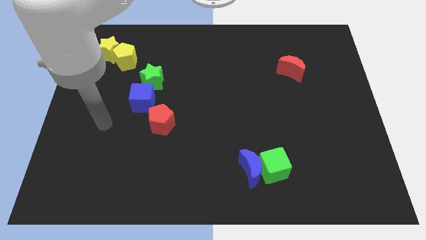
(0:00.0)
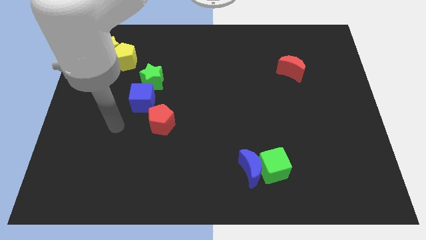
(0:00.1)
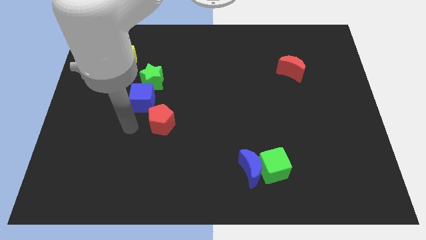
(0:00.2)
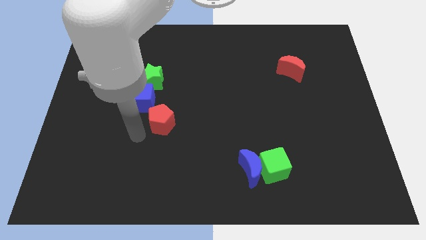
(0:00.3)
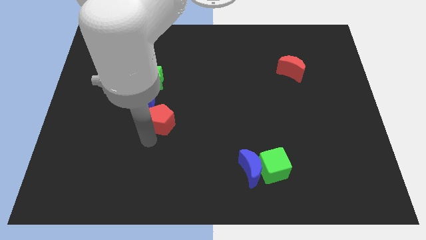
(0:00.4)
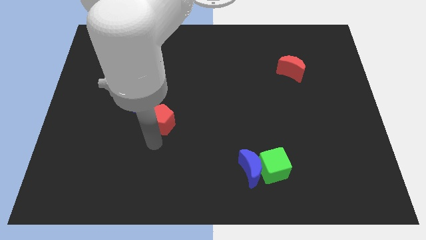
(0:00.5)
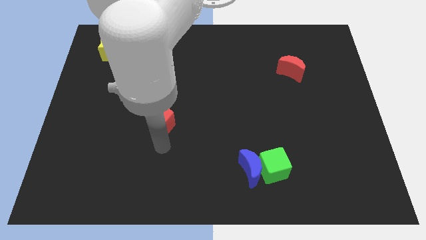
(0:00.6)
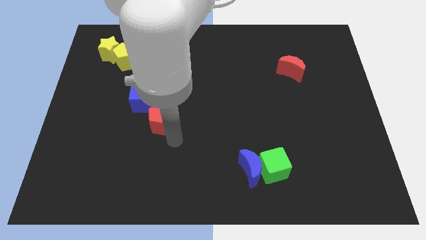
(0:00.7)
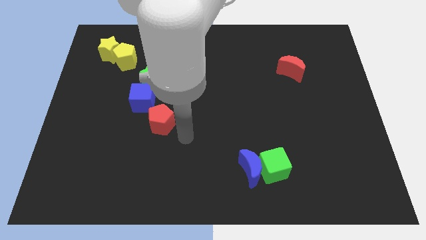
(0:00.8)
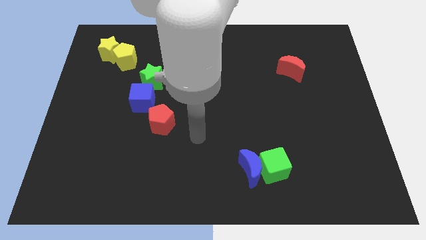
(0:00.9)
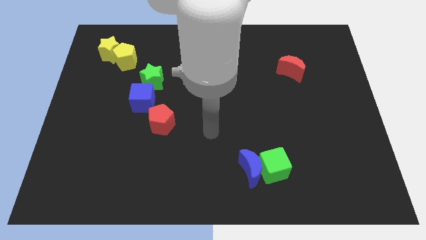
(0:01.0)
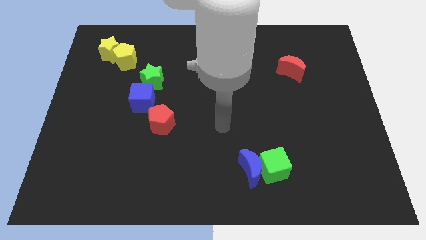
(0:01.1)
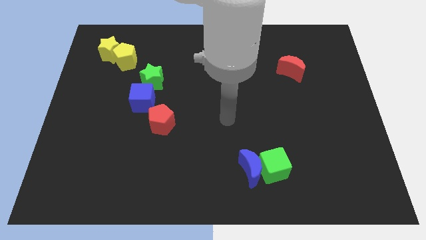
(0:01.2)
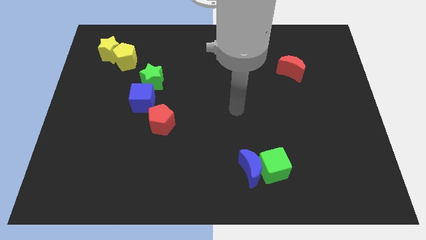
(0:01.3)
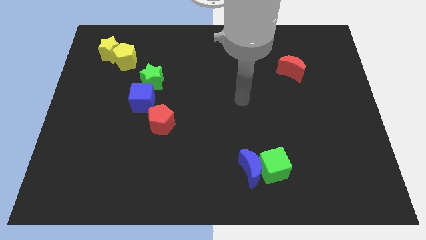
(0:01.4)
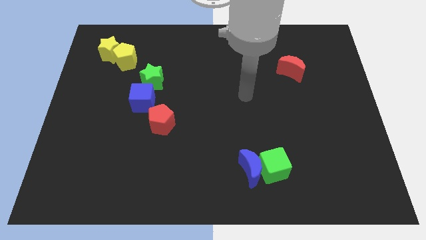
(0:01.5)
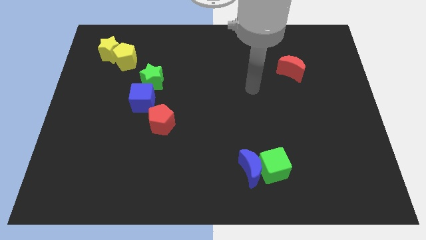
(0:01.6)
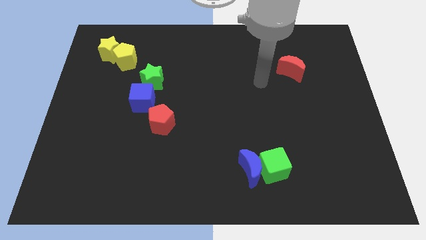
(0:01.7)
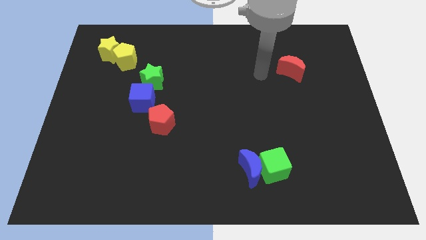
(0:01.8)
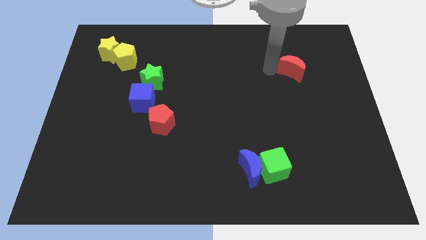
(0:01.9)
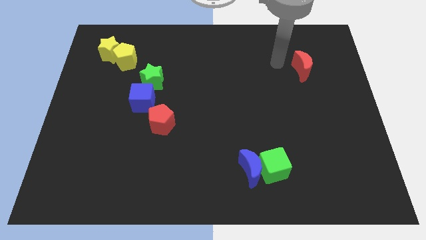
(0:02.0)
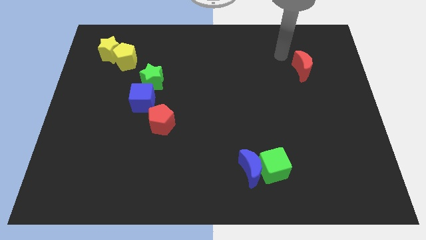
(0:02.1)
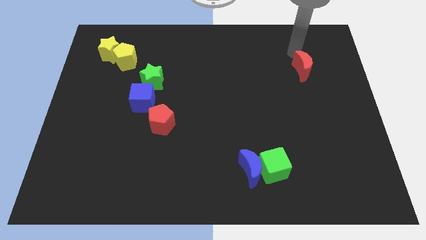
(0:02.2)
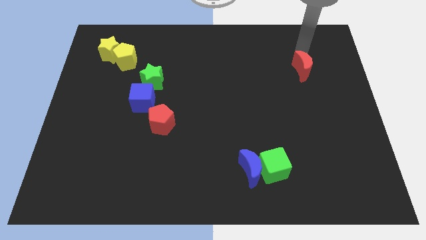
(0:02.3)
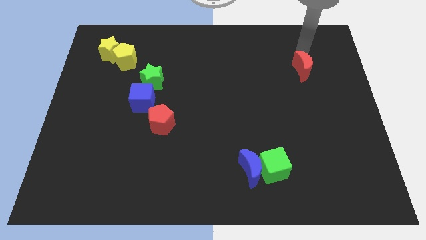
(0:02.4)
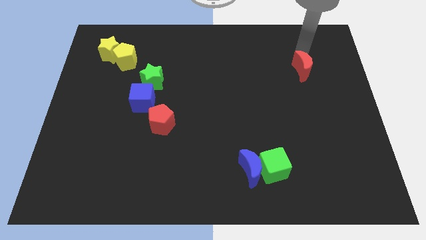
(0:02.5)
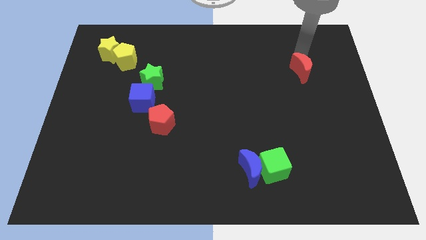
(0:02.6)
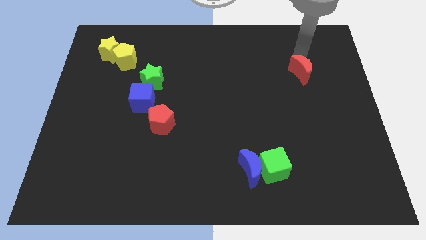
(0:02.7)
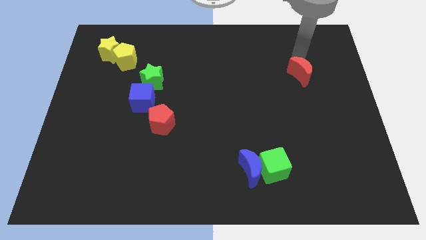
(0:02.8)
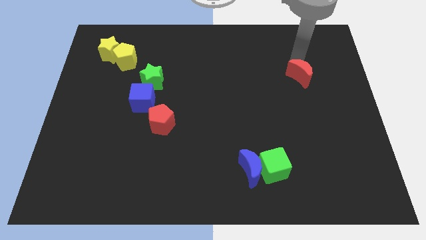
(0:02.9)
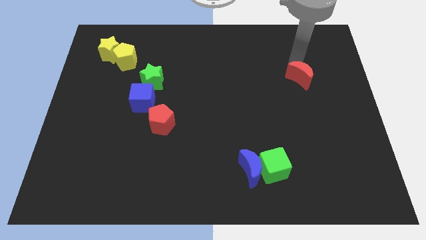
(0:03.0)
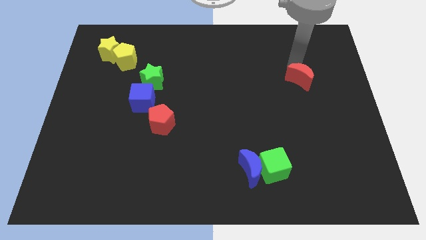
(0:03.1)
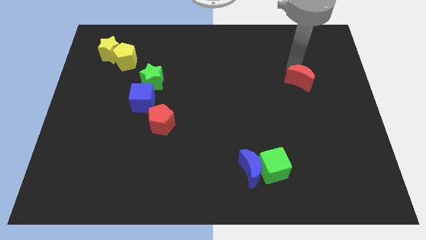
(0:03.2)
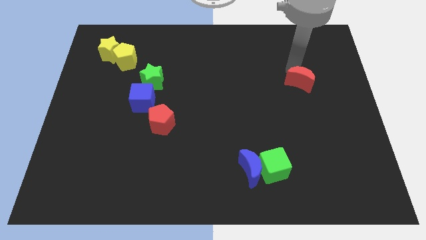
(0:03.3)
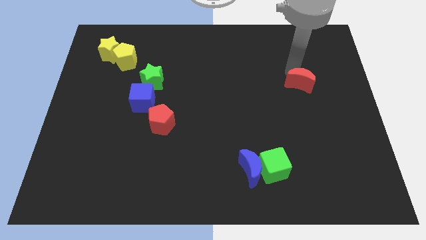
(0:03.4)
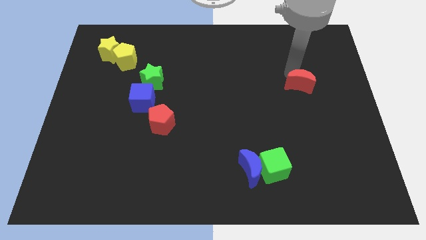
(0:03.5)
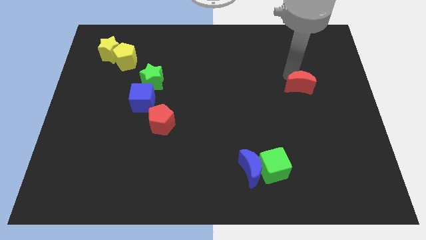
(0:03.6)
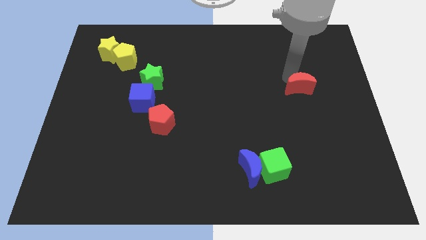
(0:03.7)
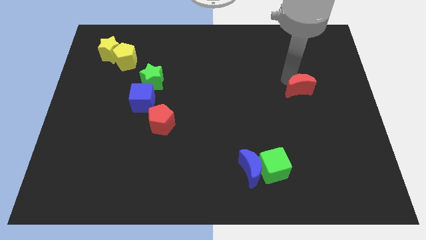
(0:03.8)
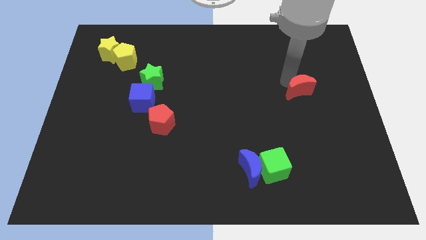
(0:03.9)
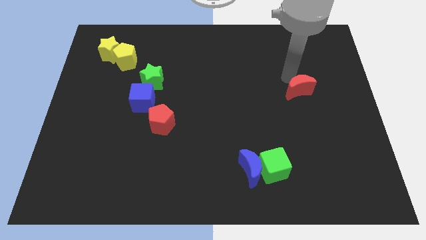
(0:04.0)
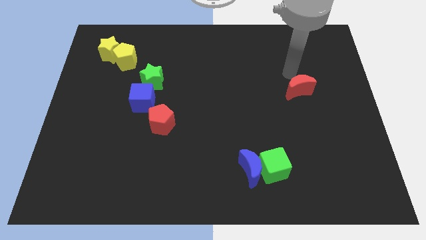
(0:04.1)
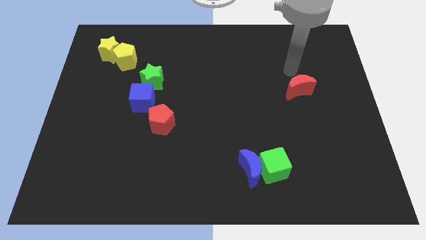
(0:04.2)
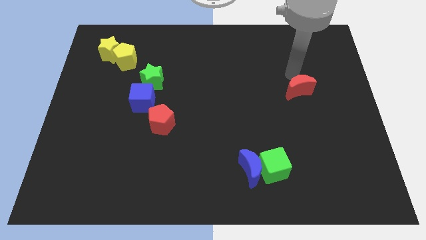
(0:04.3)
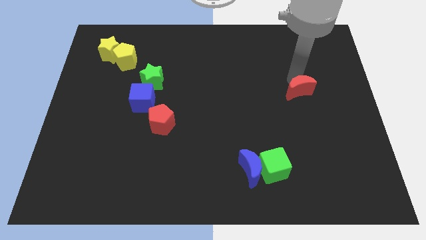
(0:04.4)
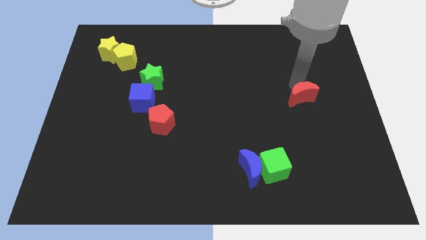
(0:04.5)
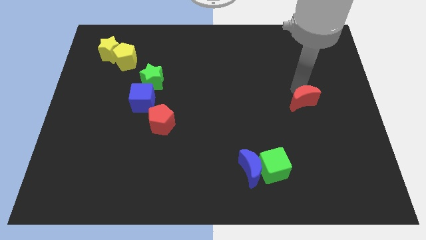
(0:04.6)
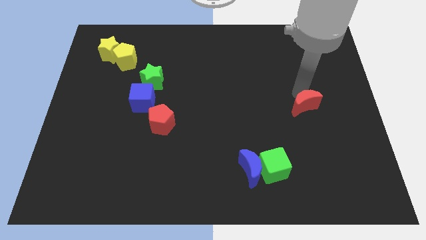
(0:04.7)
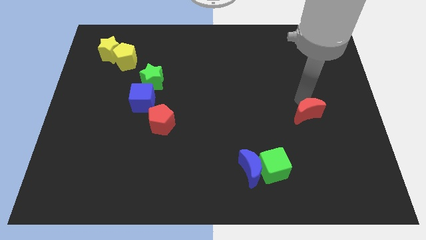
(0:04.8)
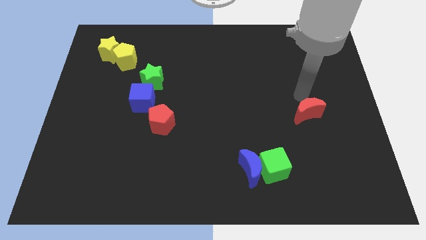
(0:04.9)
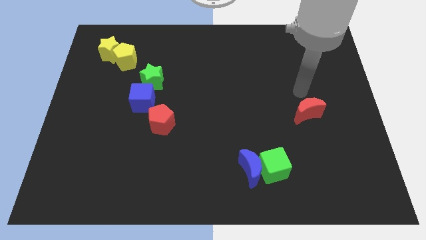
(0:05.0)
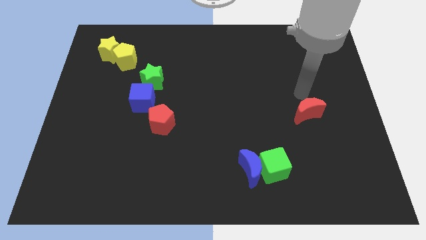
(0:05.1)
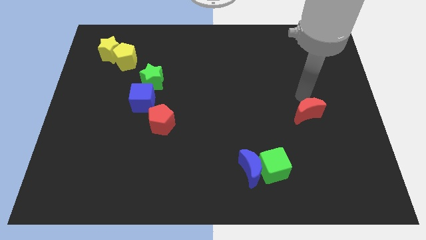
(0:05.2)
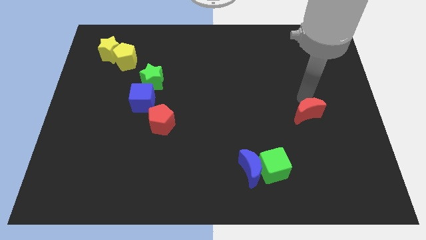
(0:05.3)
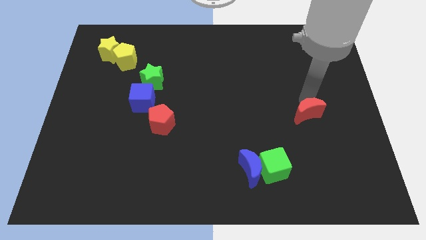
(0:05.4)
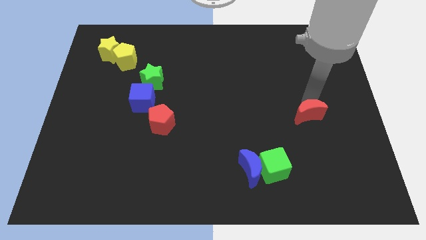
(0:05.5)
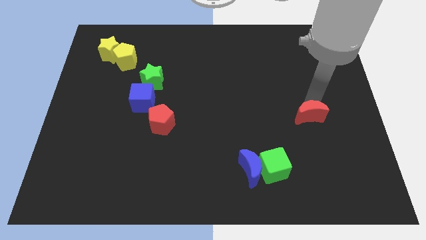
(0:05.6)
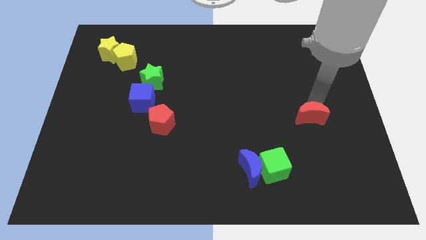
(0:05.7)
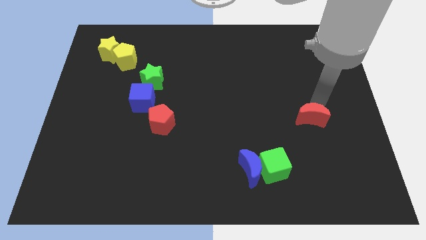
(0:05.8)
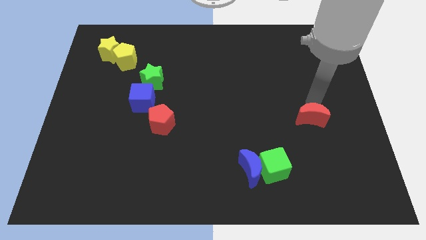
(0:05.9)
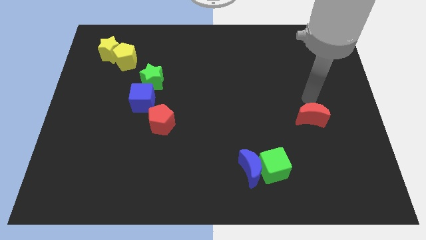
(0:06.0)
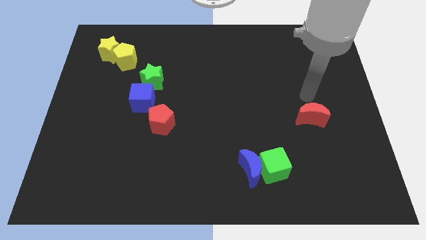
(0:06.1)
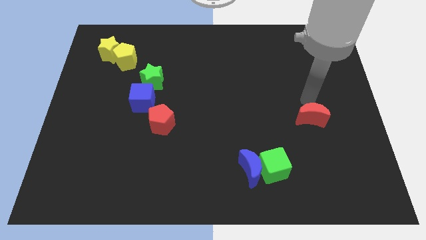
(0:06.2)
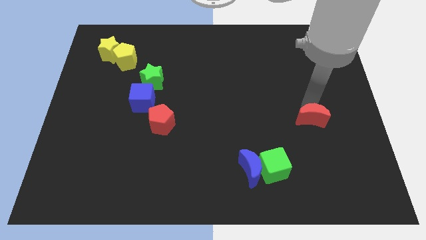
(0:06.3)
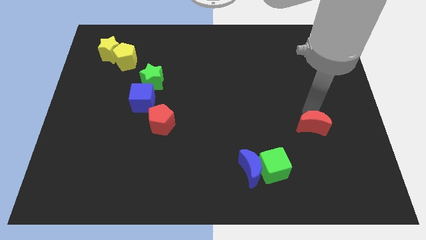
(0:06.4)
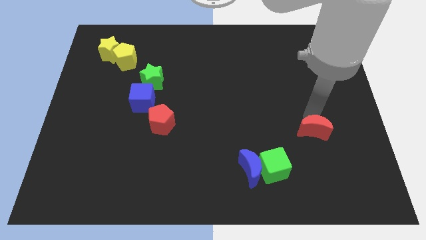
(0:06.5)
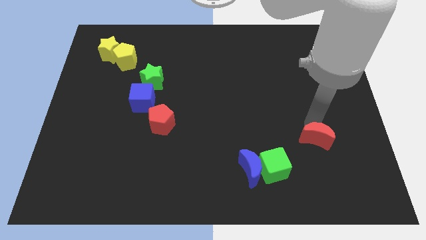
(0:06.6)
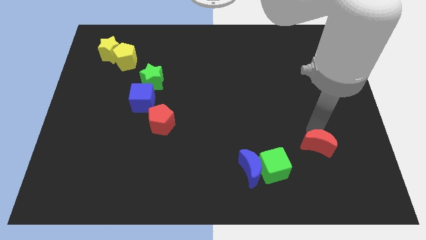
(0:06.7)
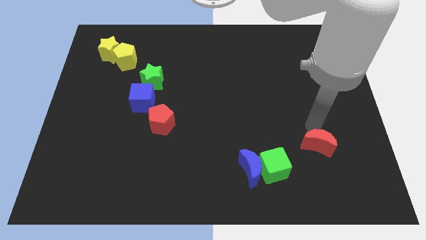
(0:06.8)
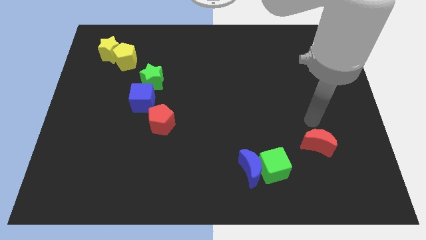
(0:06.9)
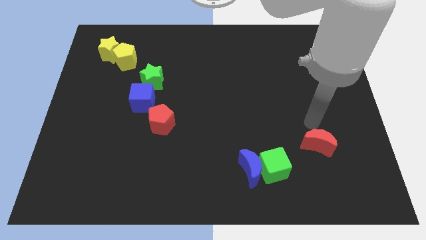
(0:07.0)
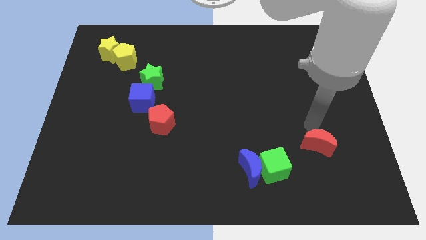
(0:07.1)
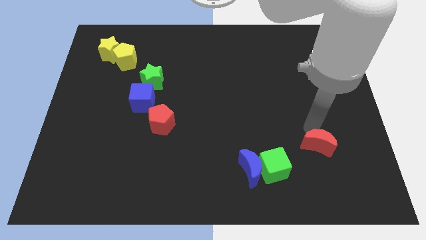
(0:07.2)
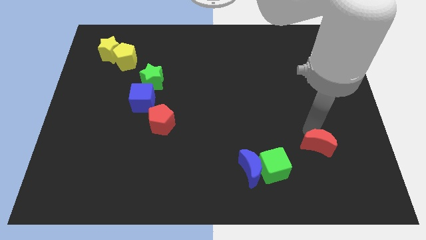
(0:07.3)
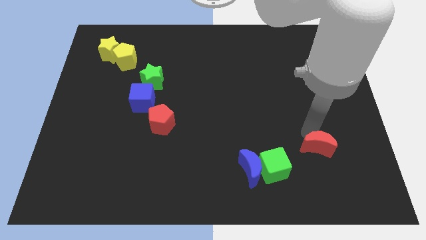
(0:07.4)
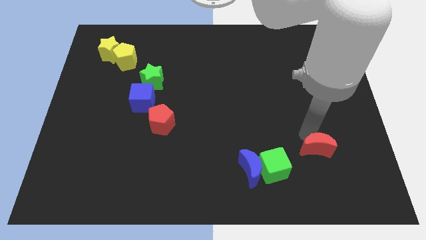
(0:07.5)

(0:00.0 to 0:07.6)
slide the red moon to the right of the green cube

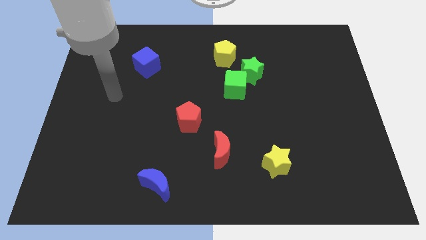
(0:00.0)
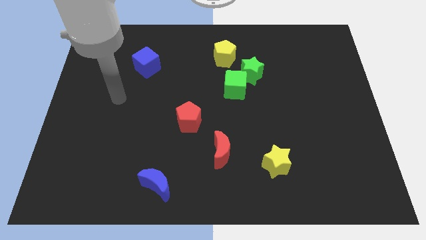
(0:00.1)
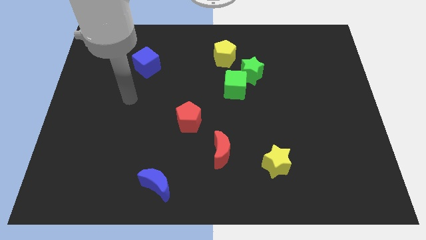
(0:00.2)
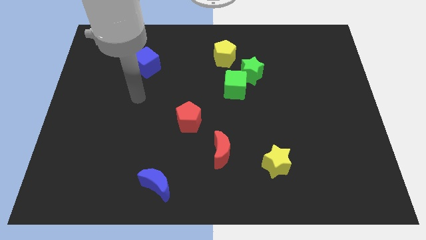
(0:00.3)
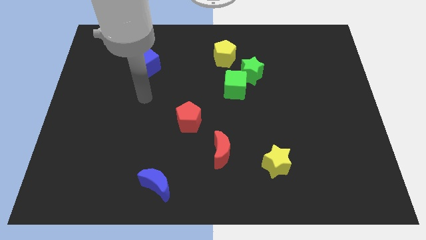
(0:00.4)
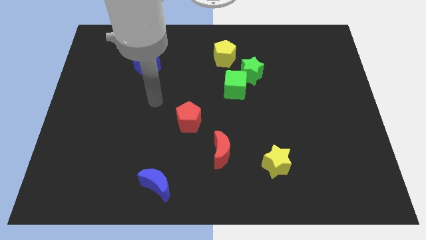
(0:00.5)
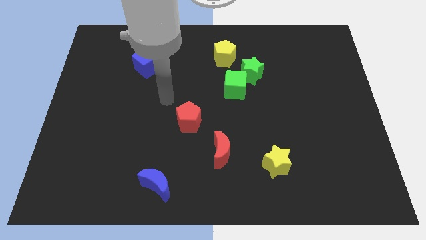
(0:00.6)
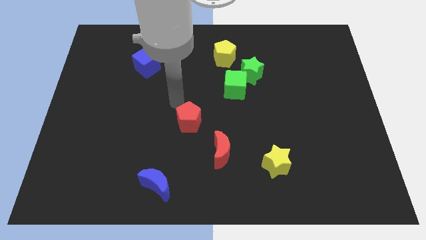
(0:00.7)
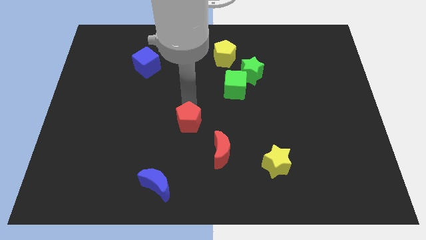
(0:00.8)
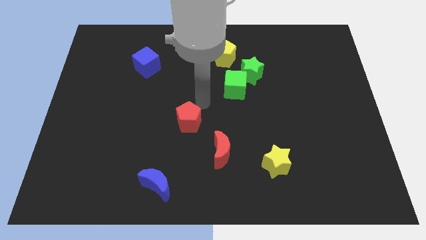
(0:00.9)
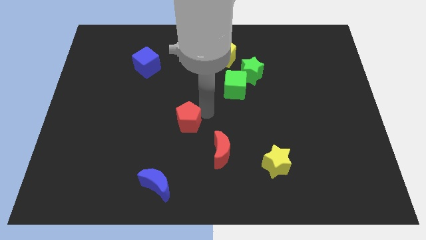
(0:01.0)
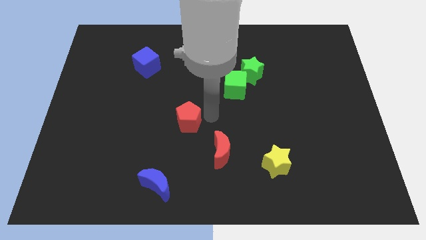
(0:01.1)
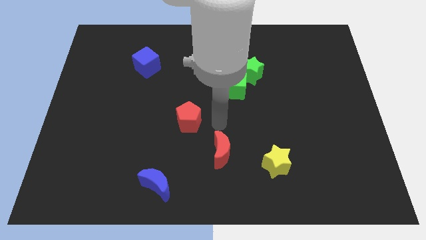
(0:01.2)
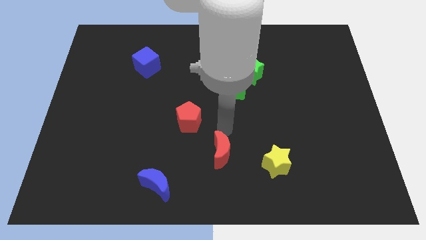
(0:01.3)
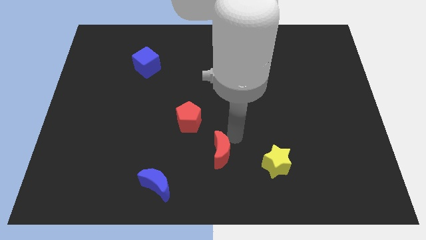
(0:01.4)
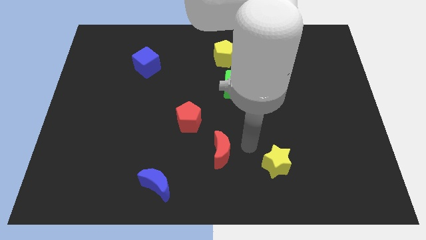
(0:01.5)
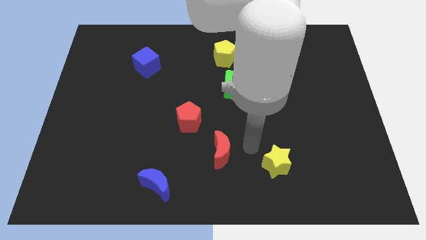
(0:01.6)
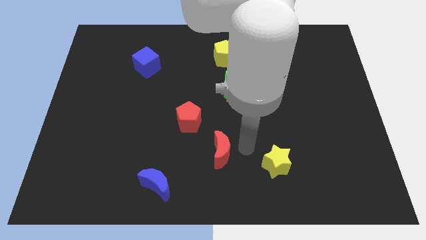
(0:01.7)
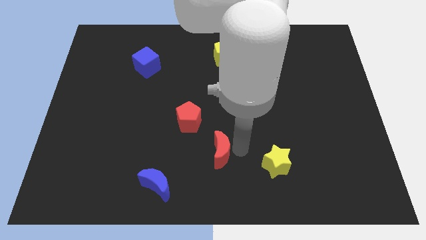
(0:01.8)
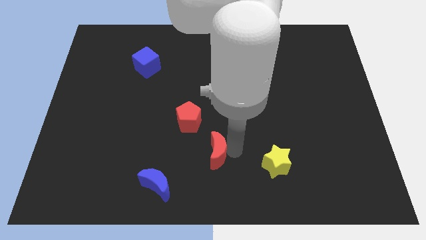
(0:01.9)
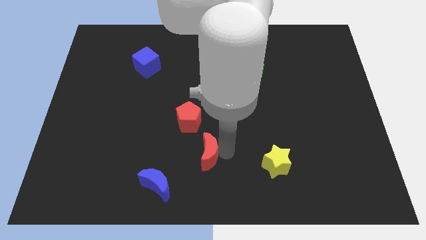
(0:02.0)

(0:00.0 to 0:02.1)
put the red moon to the top right side of the blue moon
